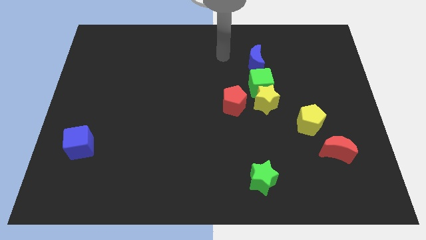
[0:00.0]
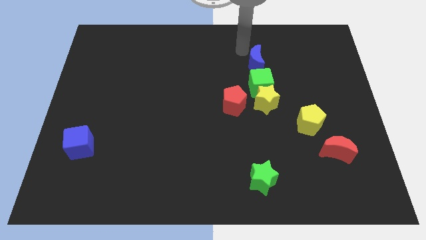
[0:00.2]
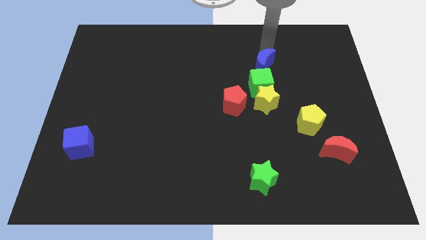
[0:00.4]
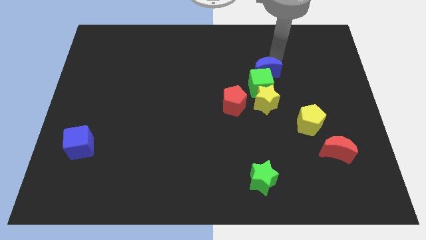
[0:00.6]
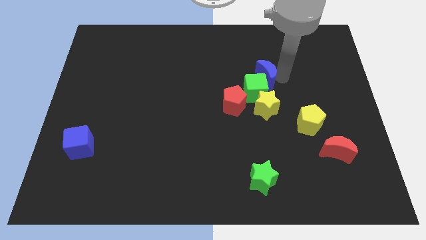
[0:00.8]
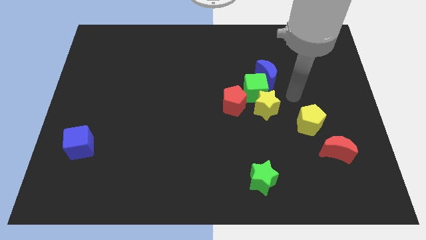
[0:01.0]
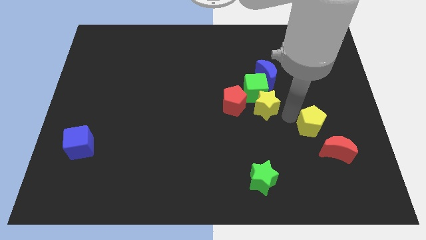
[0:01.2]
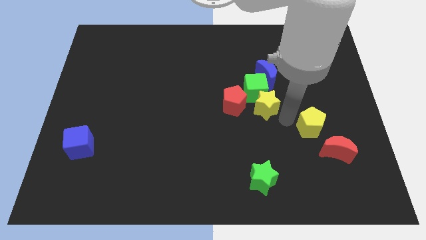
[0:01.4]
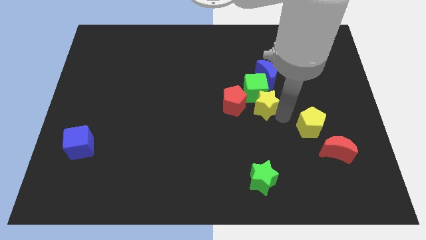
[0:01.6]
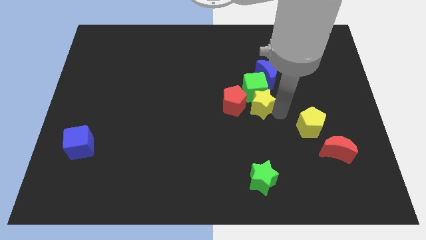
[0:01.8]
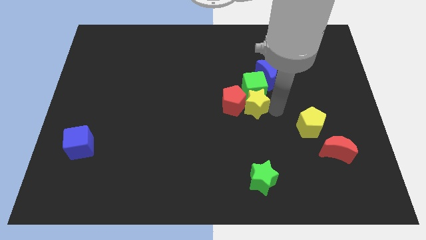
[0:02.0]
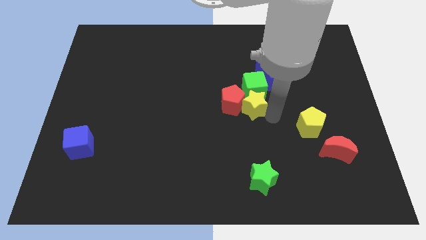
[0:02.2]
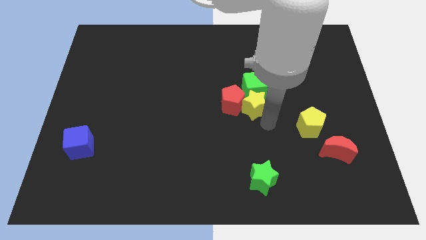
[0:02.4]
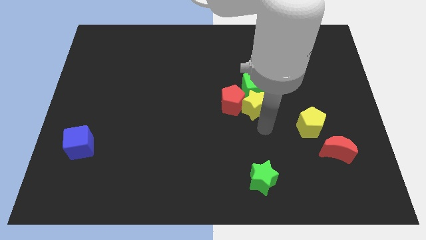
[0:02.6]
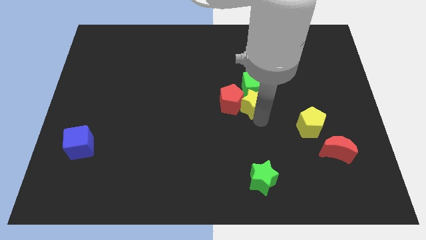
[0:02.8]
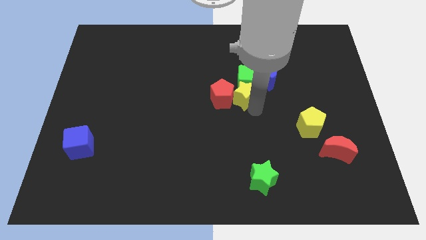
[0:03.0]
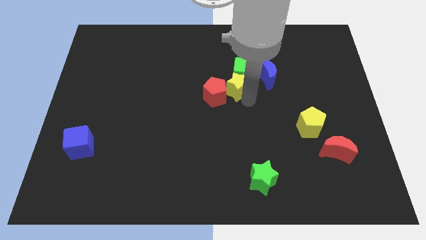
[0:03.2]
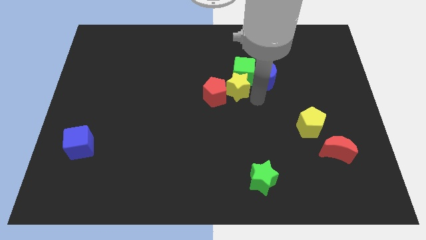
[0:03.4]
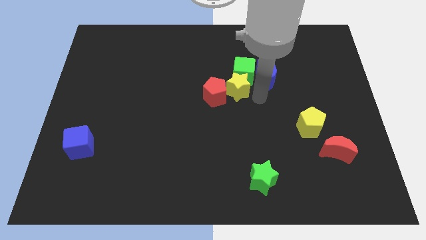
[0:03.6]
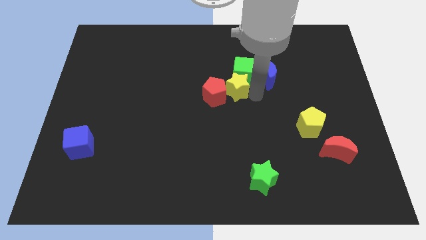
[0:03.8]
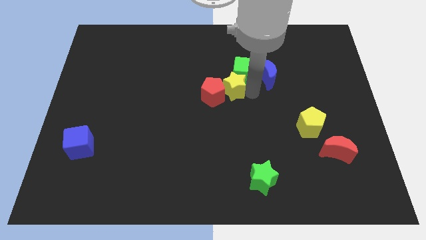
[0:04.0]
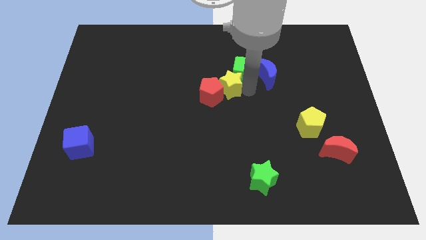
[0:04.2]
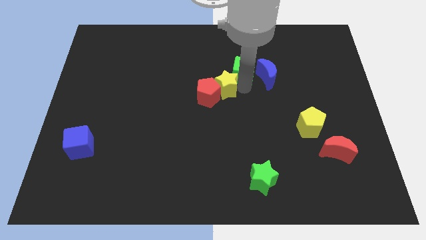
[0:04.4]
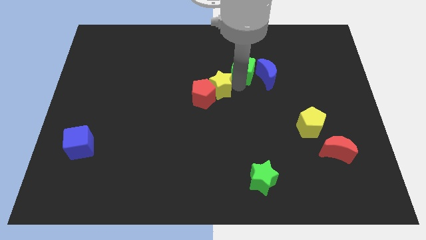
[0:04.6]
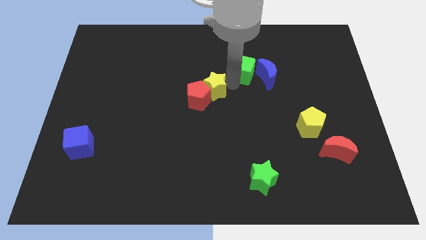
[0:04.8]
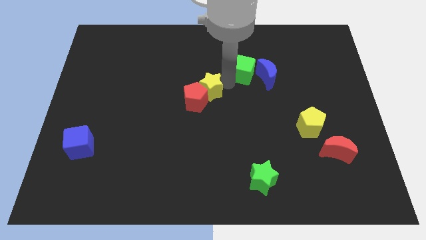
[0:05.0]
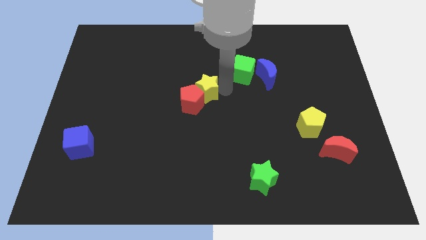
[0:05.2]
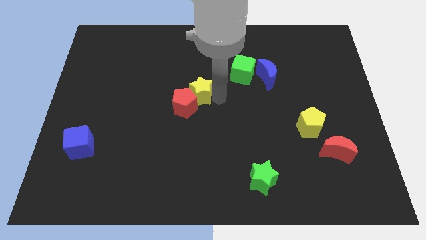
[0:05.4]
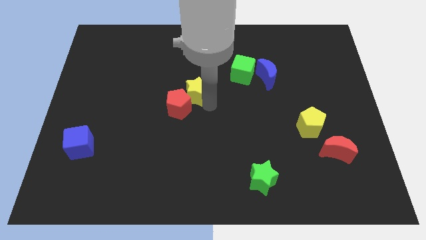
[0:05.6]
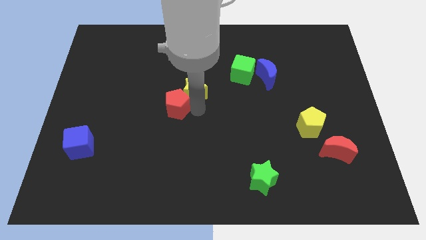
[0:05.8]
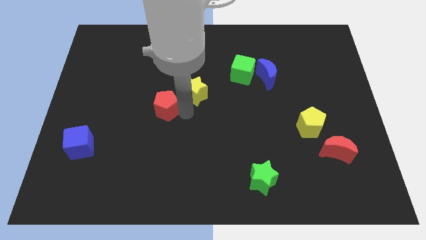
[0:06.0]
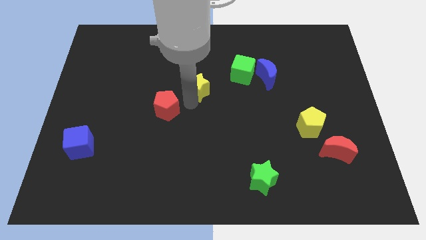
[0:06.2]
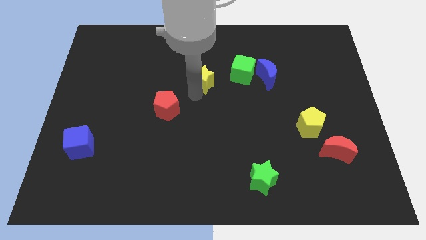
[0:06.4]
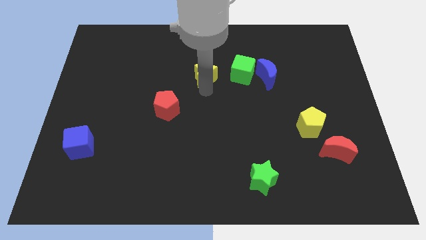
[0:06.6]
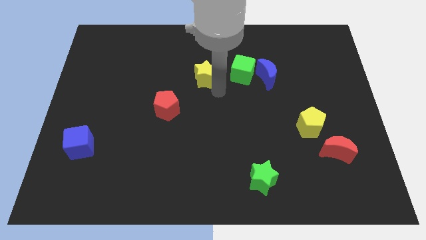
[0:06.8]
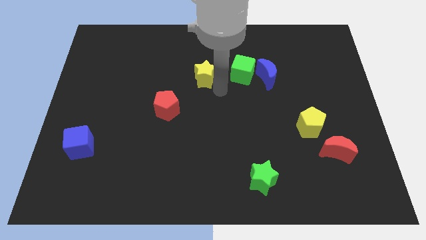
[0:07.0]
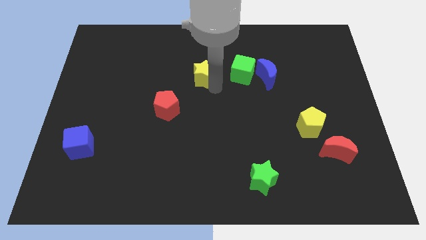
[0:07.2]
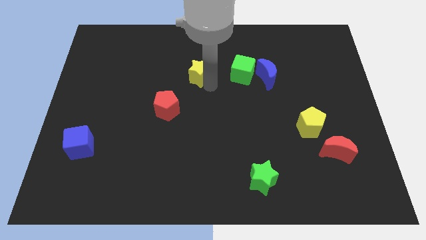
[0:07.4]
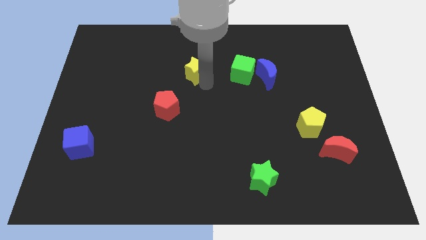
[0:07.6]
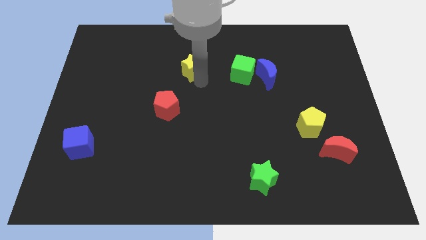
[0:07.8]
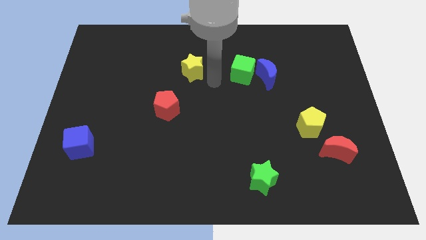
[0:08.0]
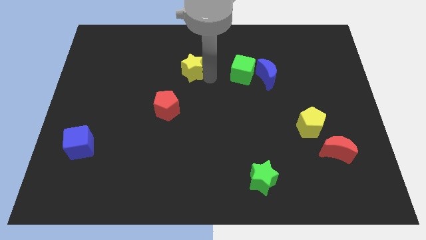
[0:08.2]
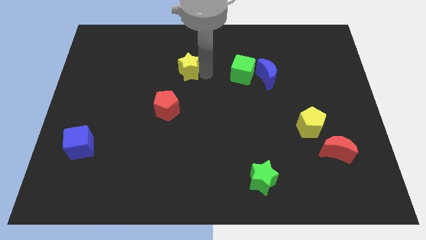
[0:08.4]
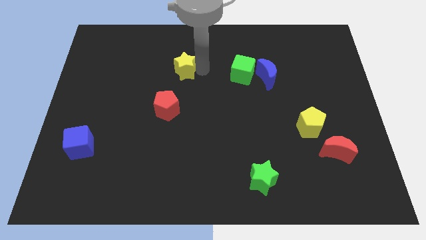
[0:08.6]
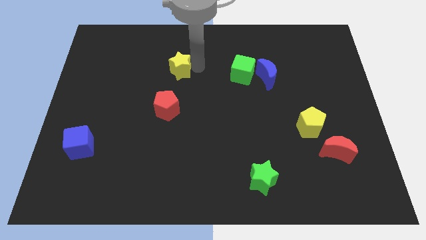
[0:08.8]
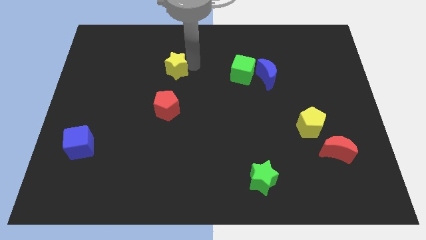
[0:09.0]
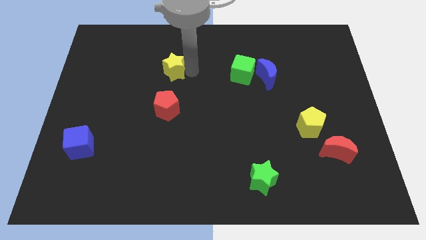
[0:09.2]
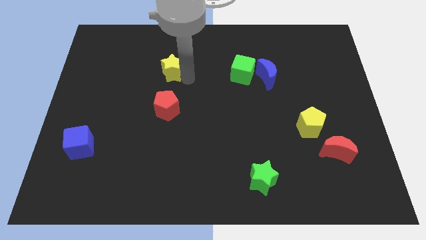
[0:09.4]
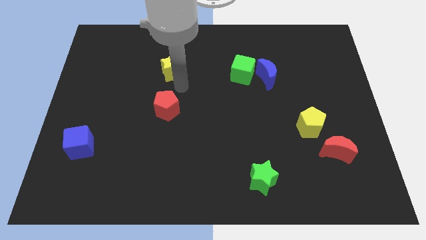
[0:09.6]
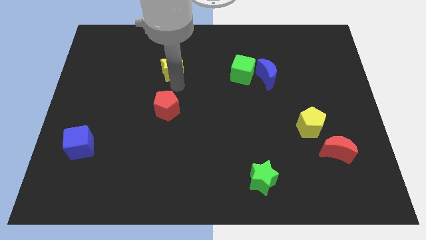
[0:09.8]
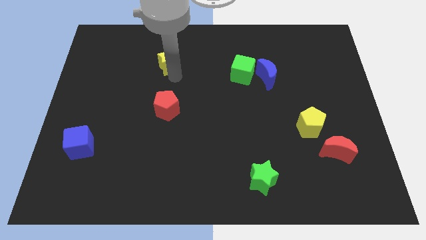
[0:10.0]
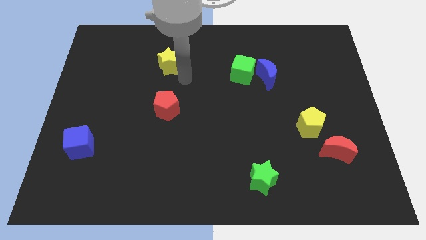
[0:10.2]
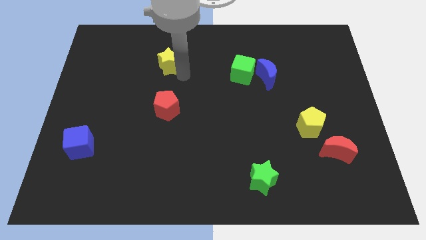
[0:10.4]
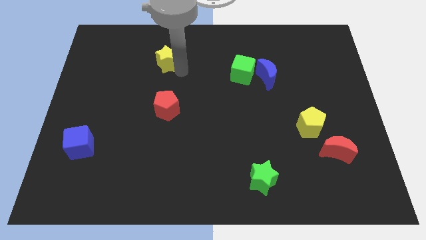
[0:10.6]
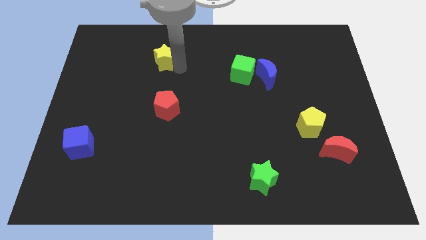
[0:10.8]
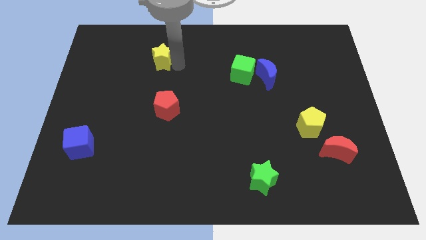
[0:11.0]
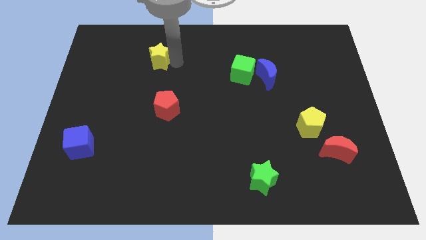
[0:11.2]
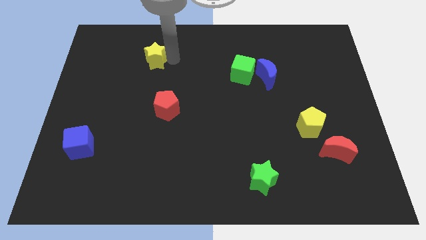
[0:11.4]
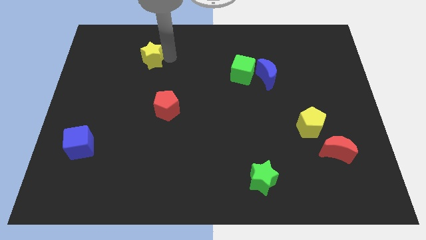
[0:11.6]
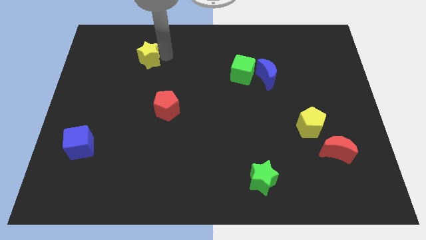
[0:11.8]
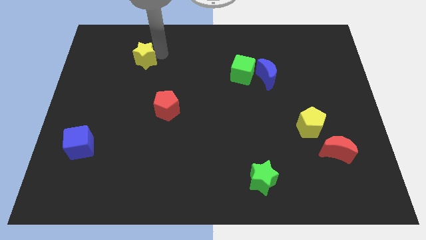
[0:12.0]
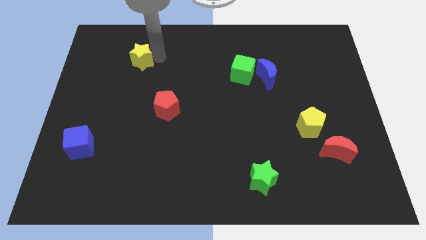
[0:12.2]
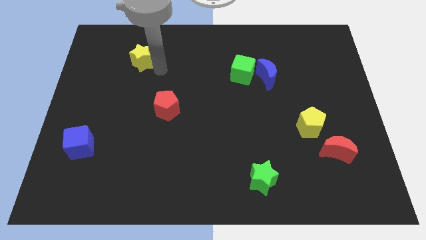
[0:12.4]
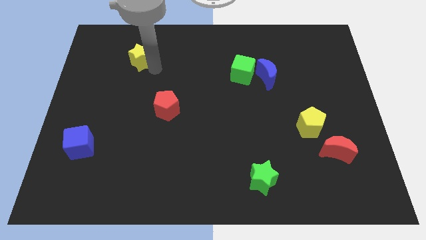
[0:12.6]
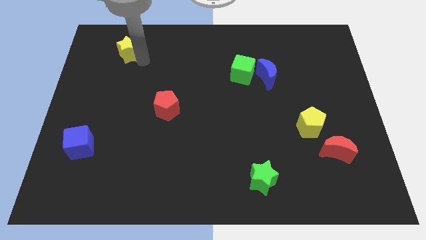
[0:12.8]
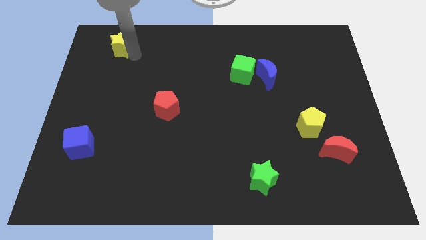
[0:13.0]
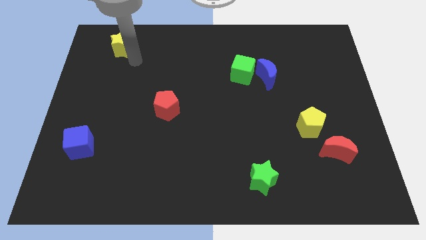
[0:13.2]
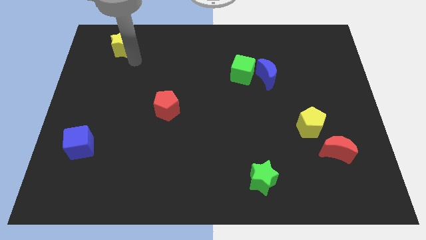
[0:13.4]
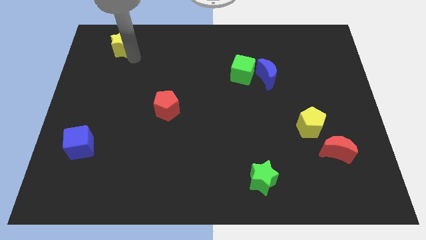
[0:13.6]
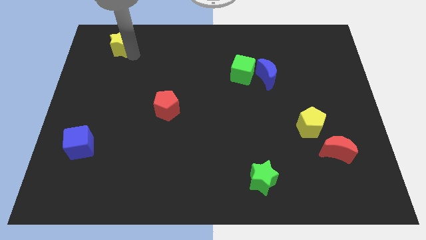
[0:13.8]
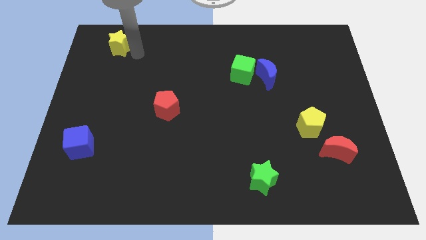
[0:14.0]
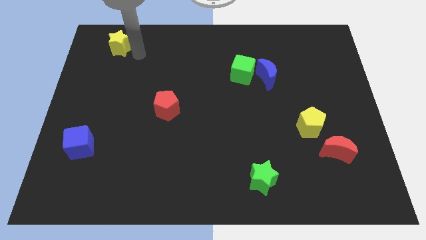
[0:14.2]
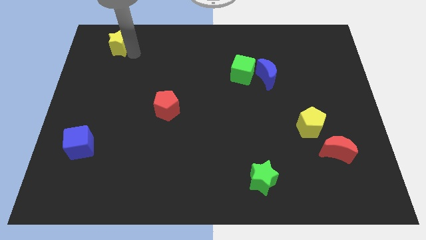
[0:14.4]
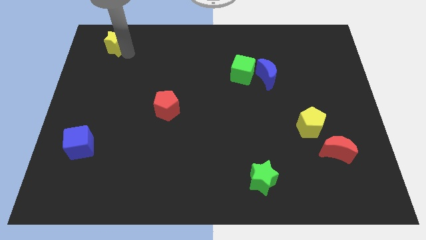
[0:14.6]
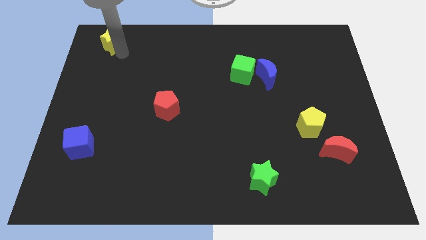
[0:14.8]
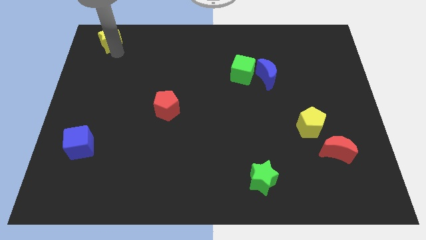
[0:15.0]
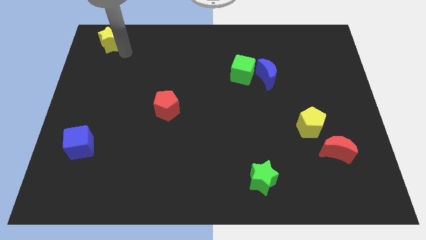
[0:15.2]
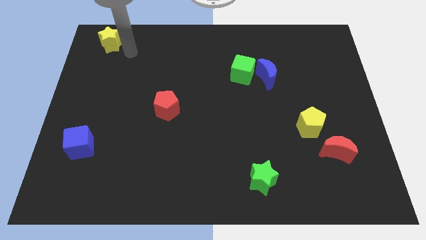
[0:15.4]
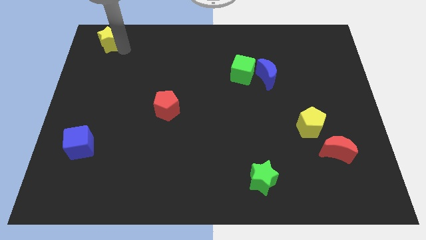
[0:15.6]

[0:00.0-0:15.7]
move the yellow star to the upper left corner
